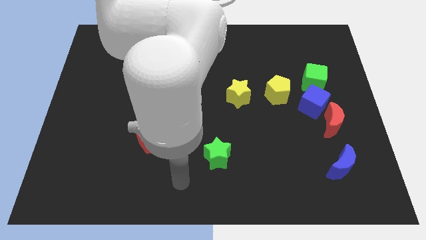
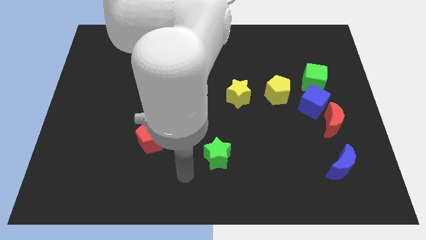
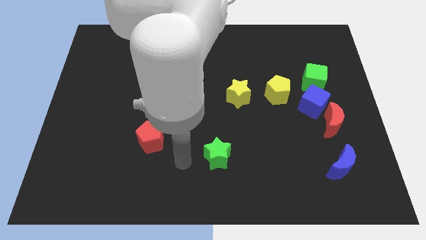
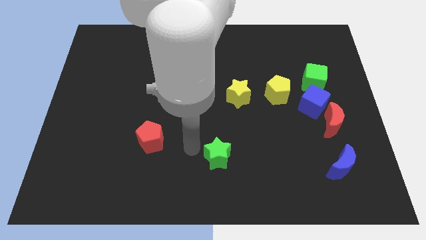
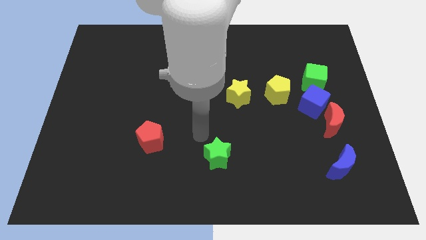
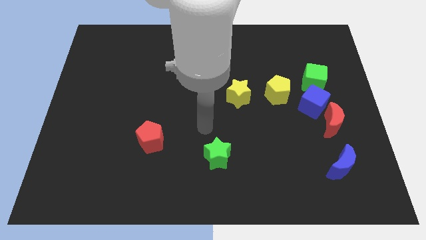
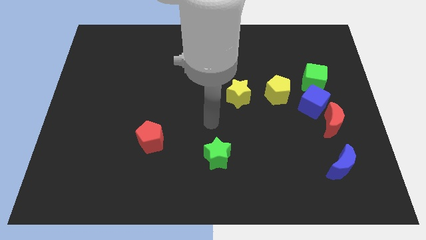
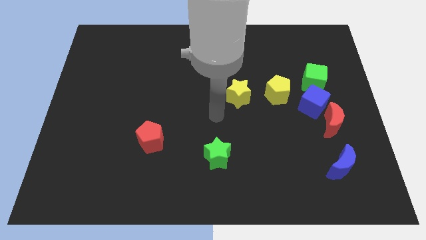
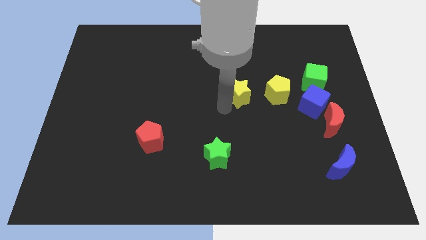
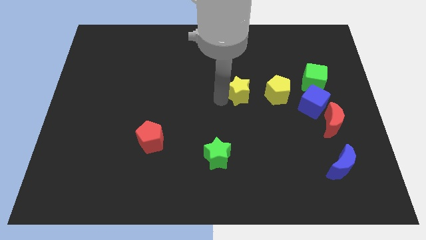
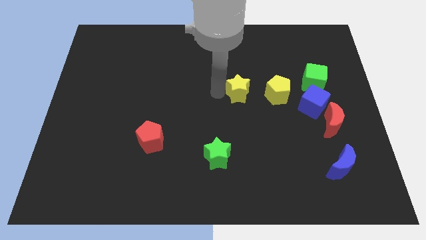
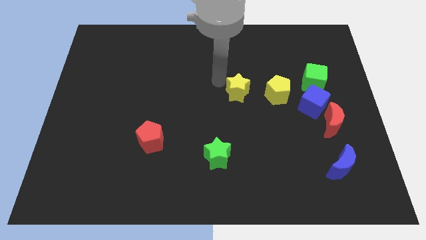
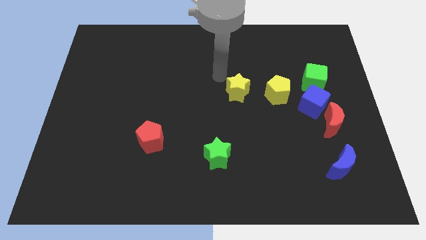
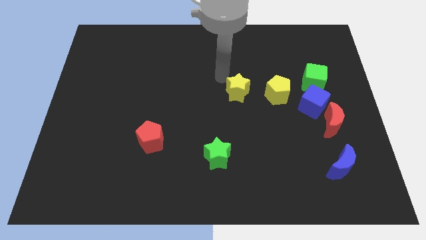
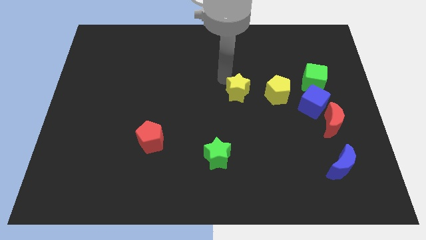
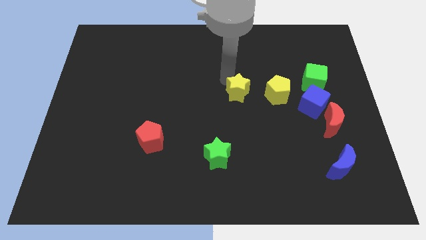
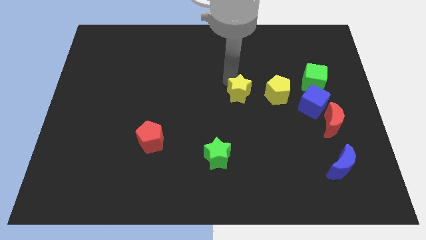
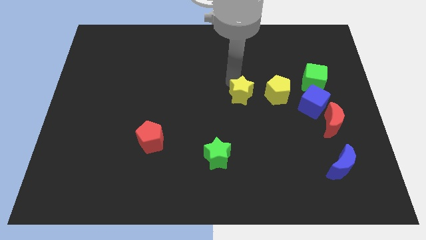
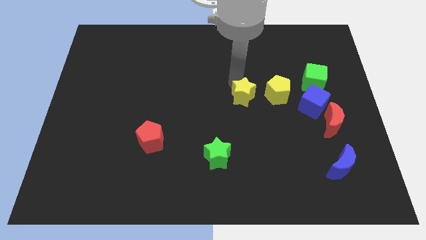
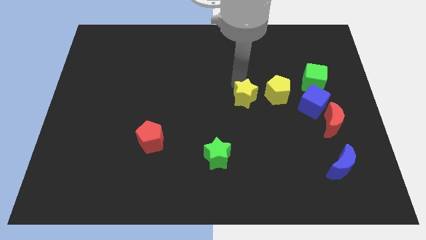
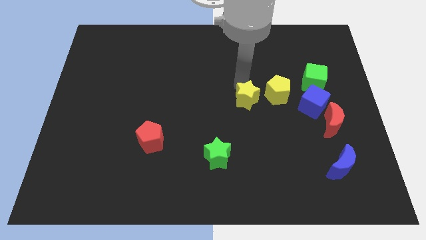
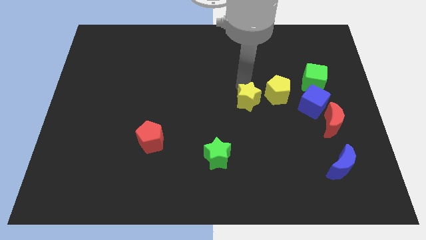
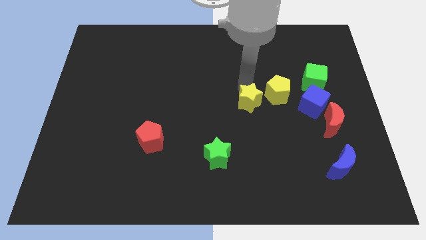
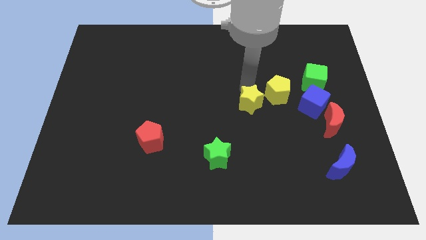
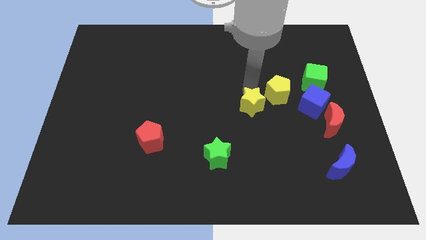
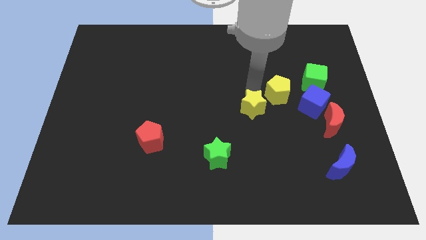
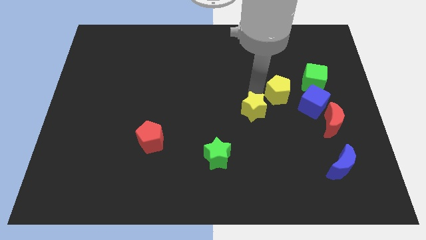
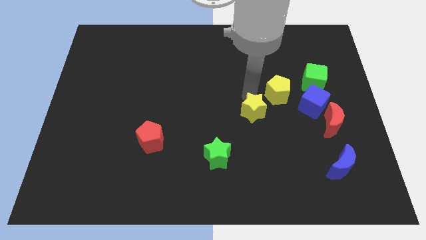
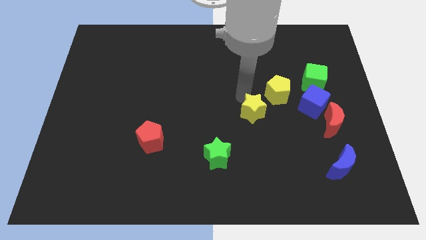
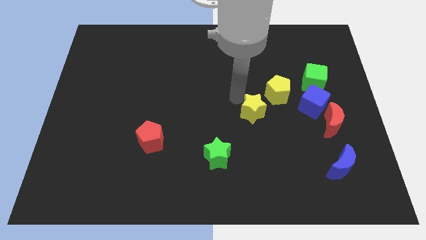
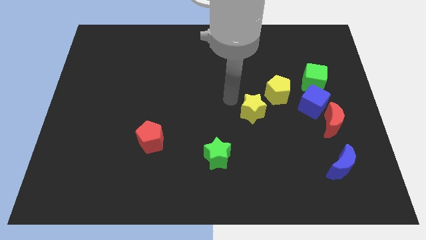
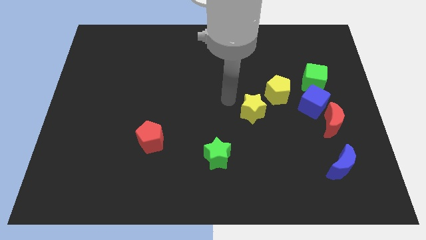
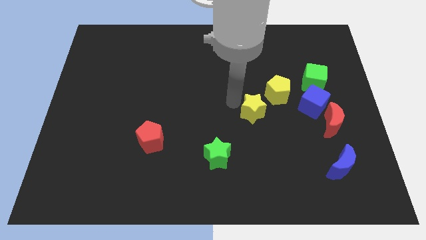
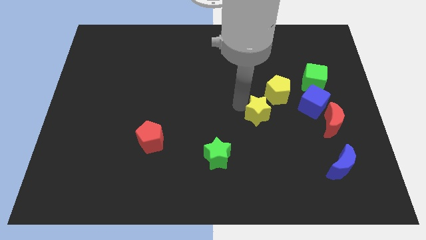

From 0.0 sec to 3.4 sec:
move the yellow star down and to the right diagonally a little

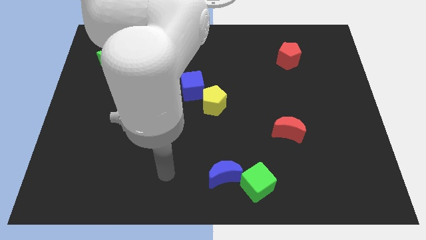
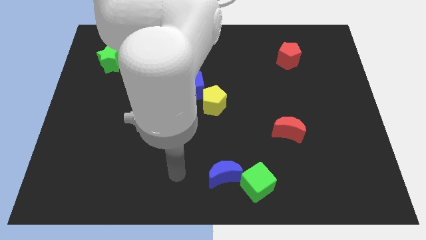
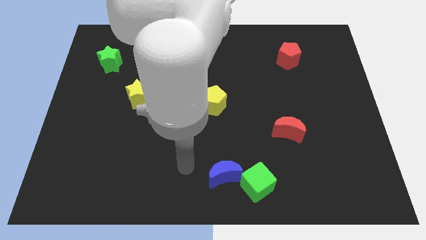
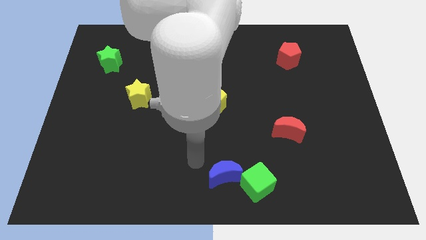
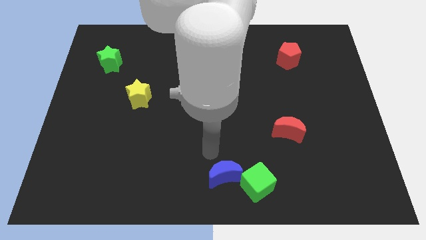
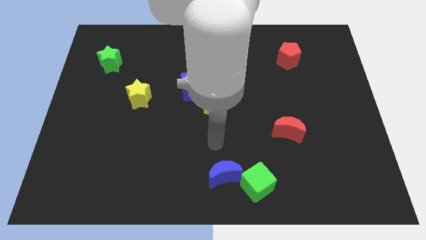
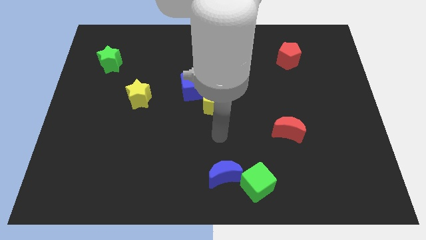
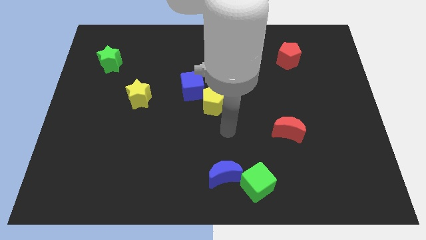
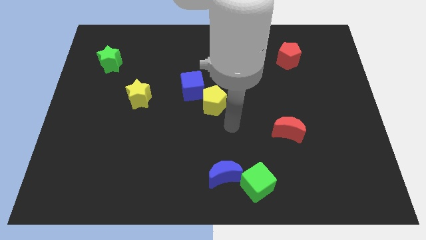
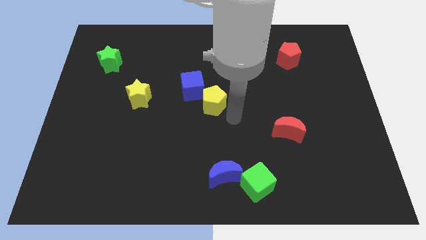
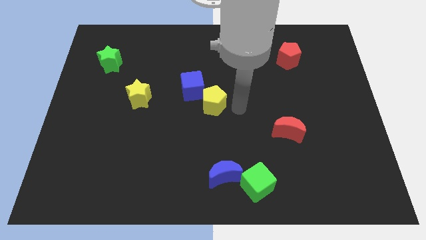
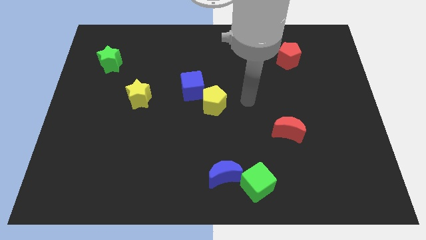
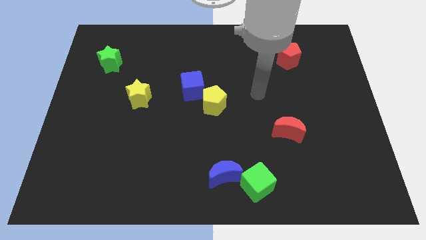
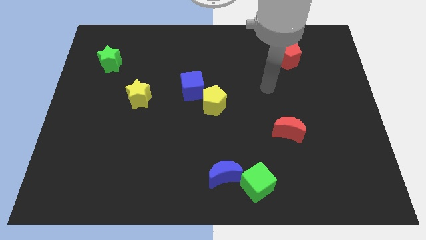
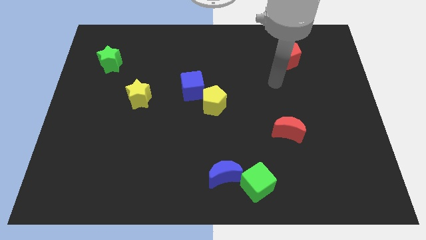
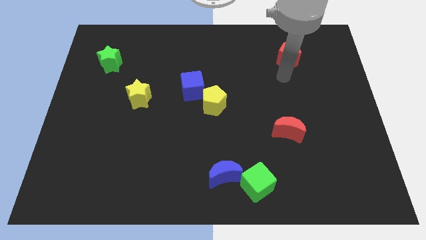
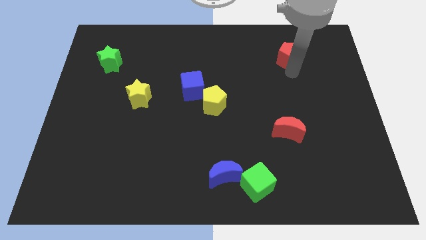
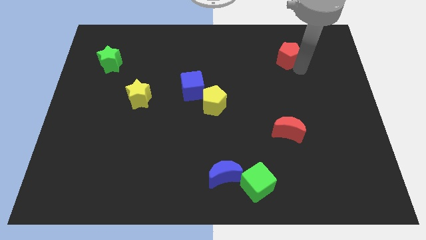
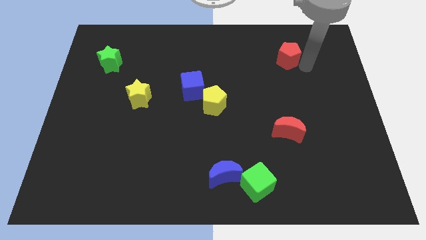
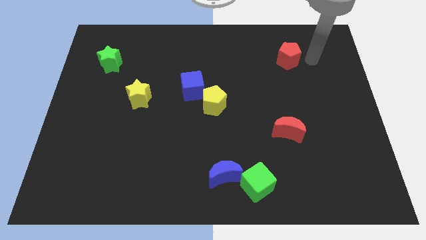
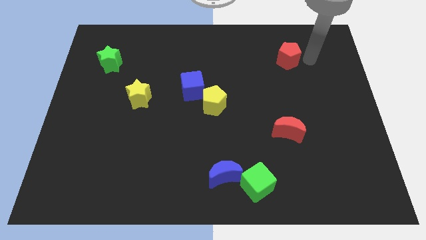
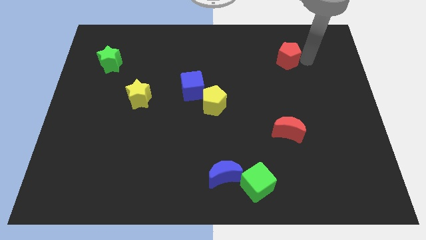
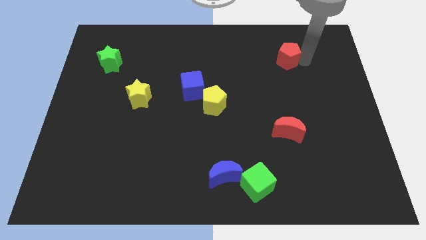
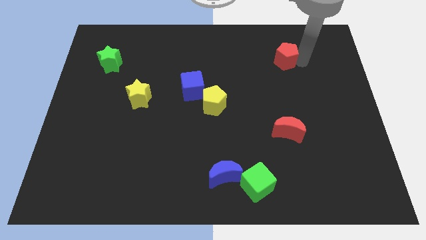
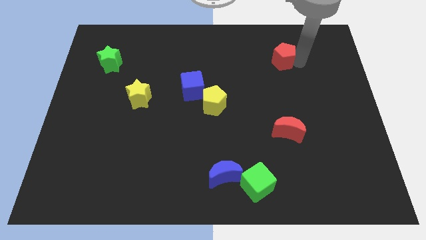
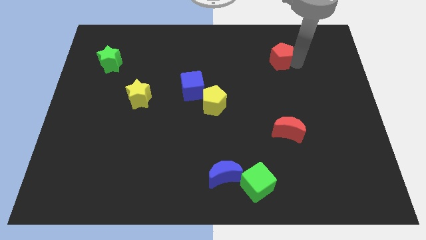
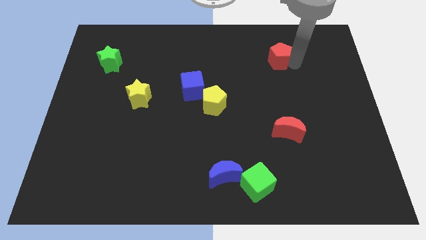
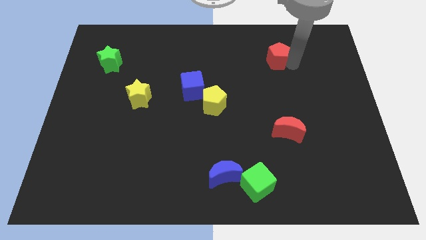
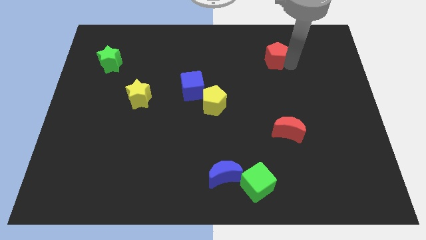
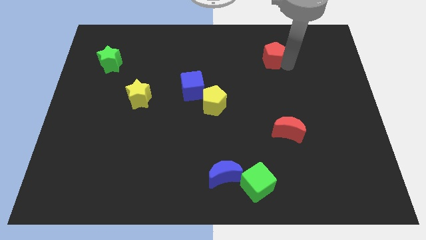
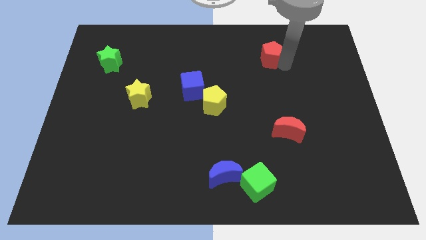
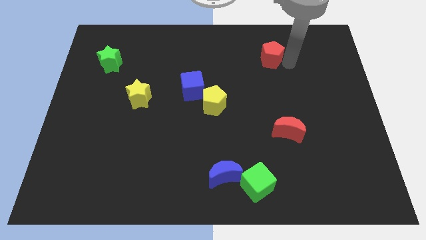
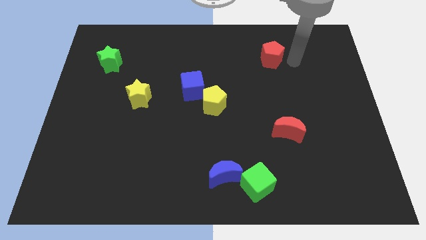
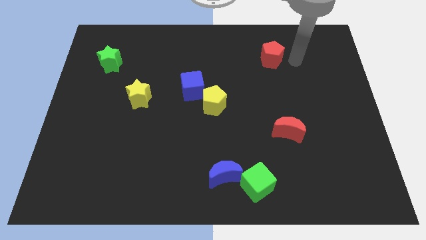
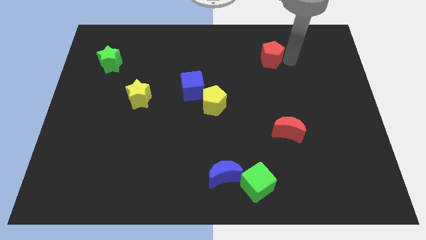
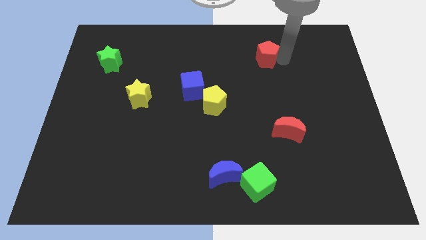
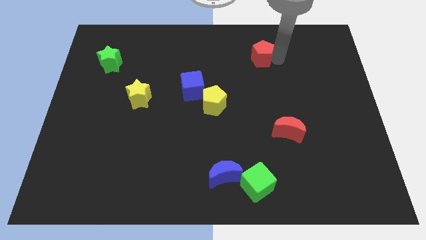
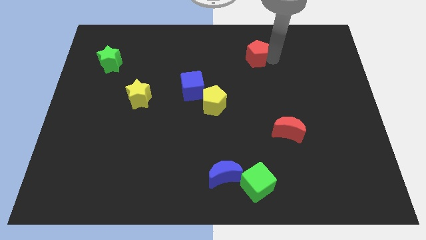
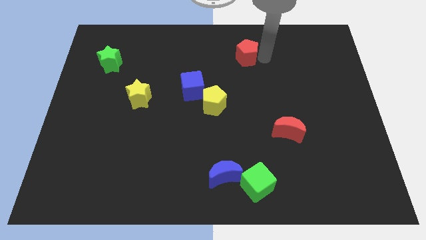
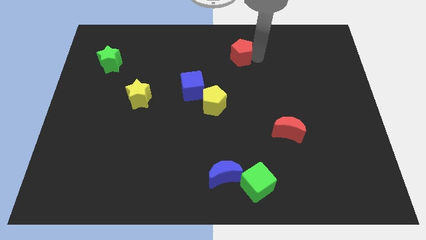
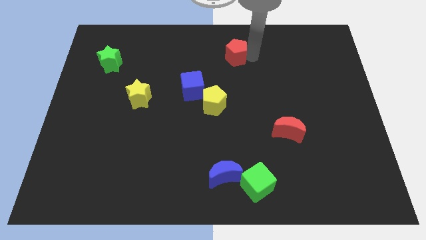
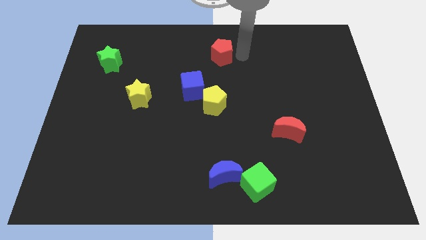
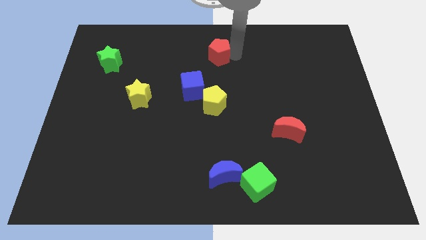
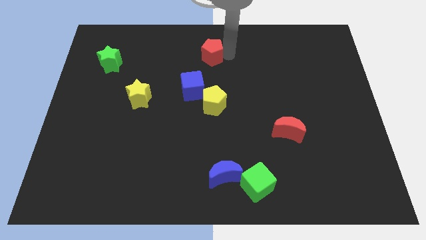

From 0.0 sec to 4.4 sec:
push the red pentagon to the left
